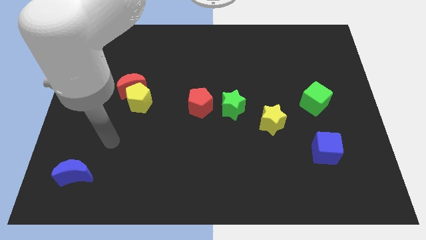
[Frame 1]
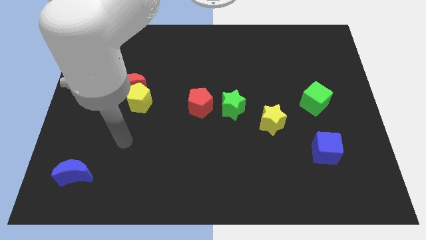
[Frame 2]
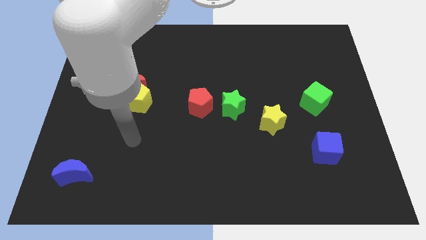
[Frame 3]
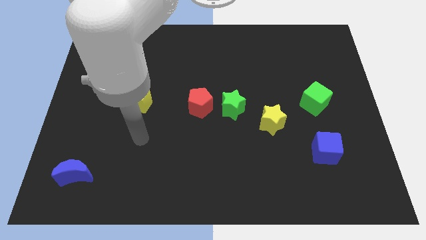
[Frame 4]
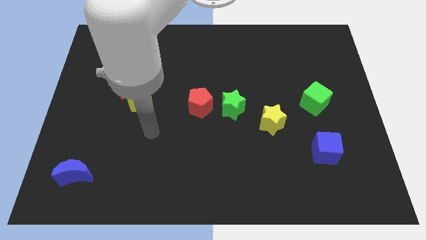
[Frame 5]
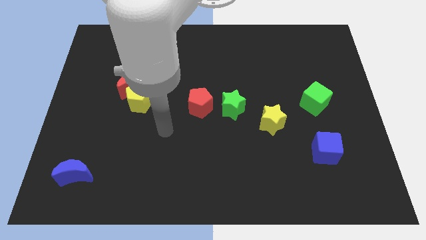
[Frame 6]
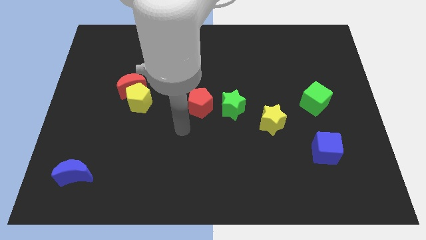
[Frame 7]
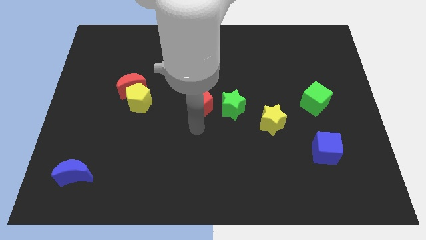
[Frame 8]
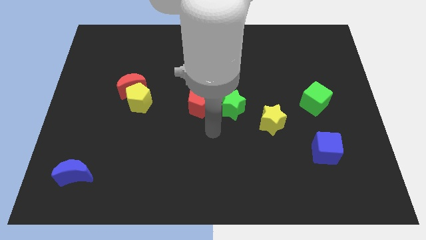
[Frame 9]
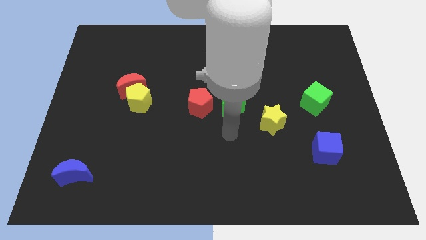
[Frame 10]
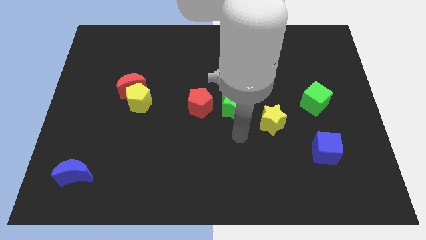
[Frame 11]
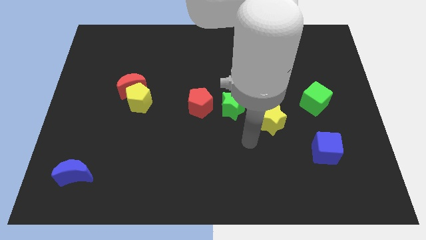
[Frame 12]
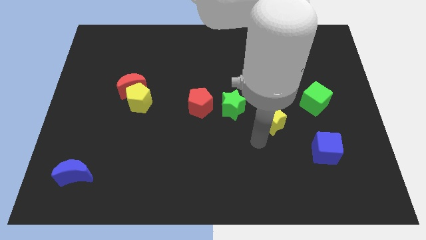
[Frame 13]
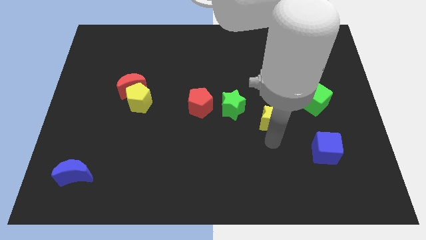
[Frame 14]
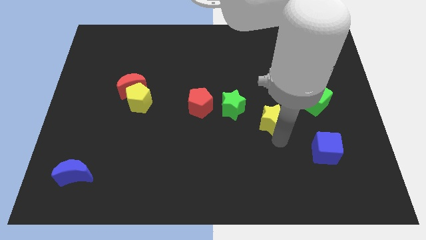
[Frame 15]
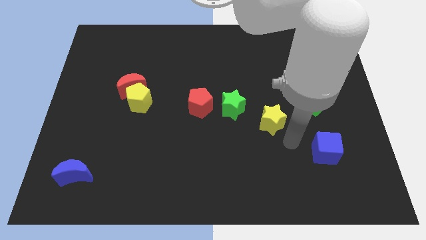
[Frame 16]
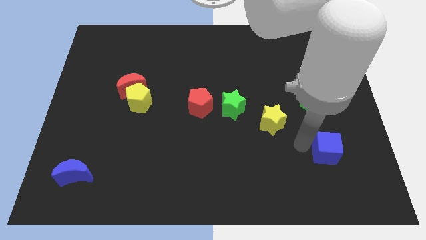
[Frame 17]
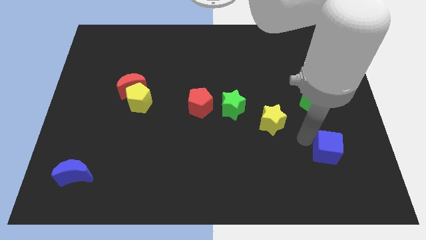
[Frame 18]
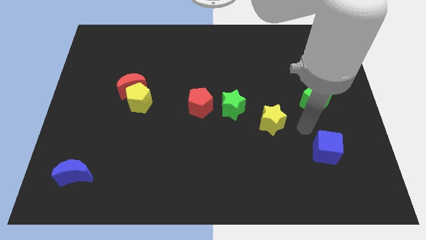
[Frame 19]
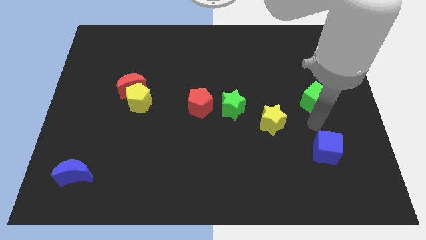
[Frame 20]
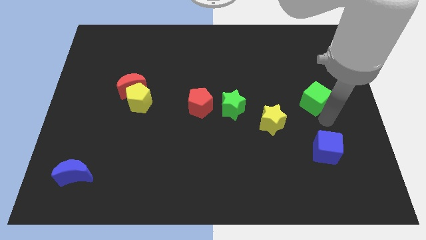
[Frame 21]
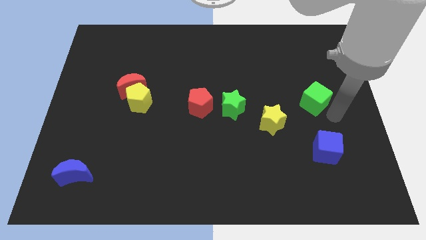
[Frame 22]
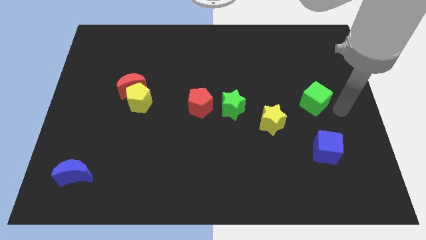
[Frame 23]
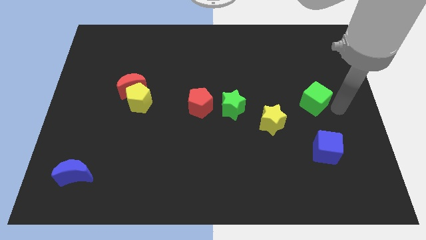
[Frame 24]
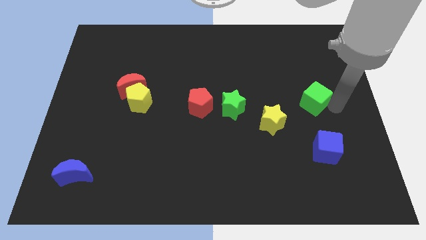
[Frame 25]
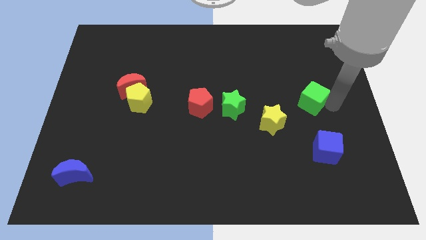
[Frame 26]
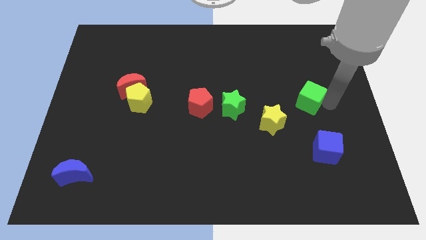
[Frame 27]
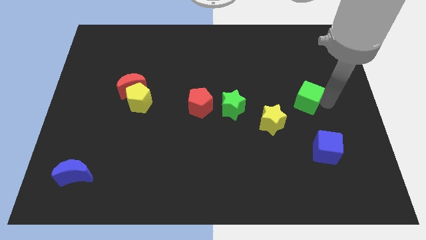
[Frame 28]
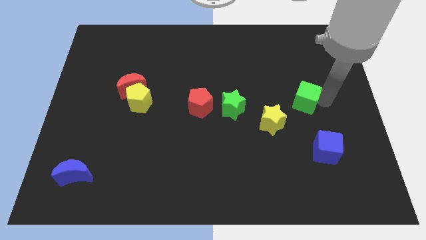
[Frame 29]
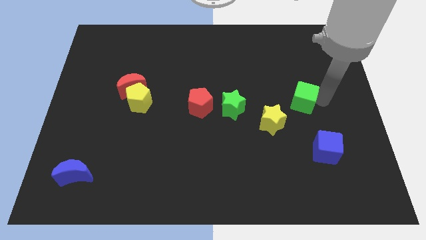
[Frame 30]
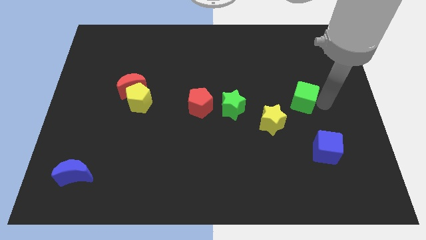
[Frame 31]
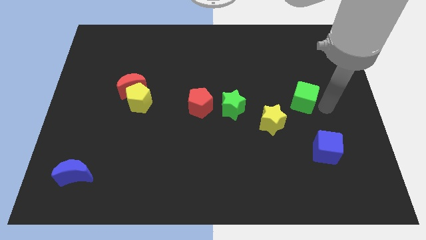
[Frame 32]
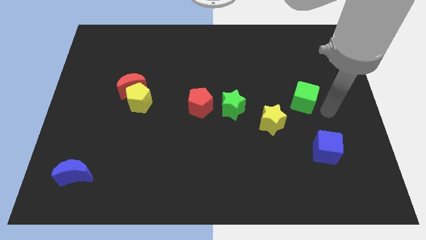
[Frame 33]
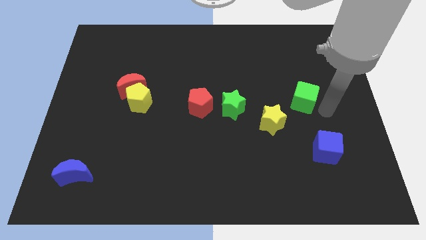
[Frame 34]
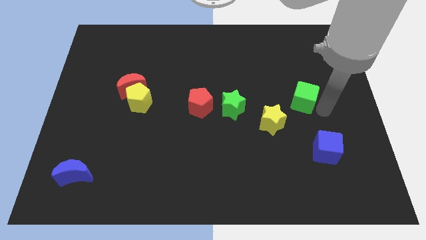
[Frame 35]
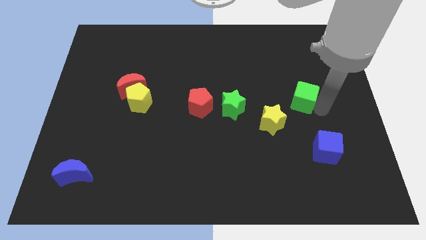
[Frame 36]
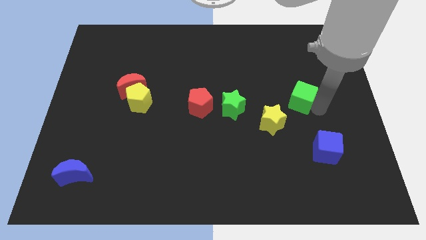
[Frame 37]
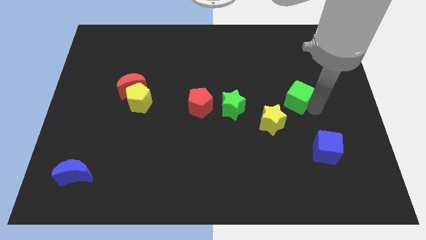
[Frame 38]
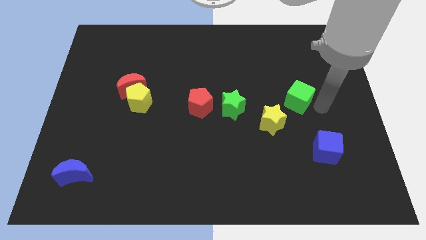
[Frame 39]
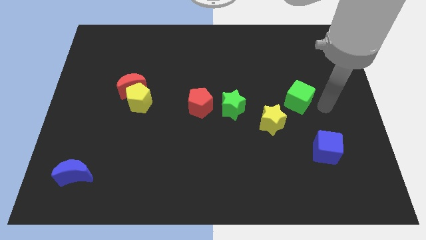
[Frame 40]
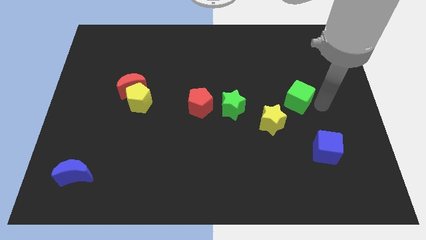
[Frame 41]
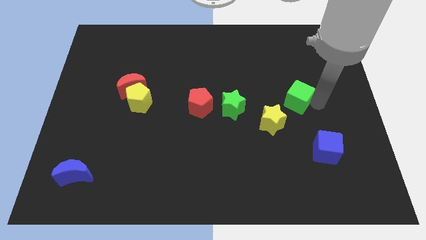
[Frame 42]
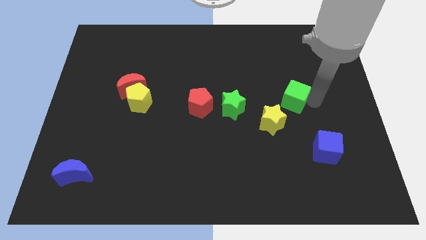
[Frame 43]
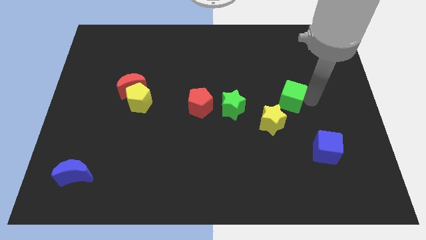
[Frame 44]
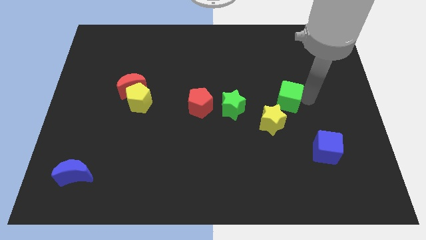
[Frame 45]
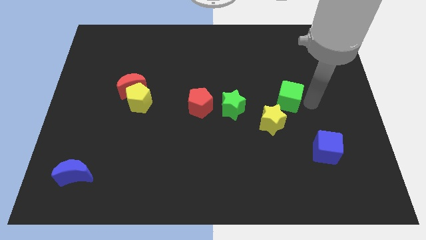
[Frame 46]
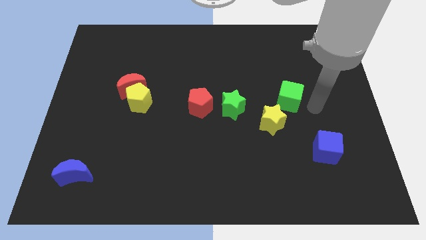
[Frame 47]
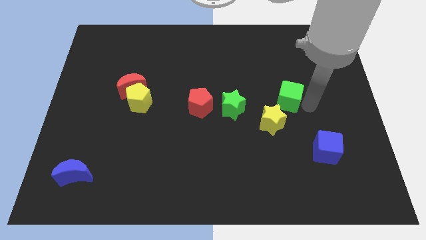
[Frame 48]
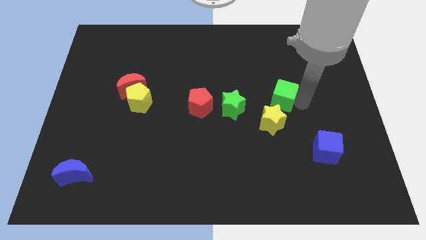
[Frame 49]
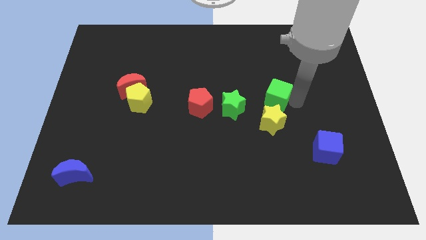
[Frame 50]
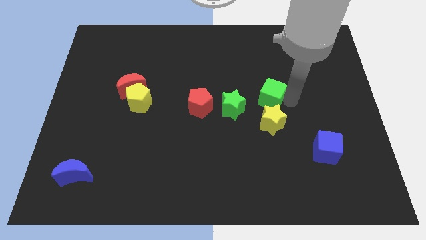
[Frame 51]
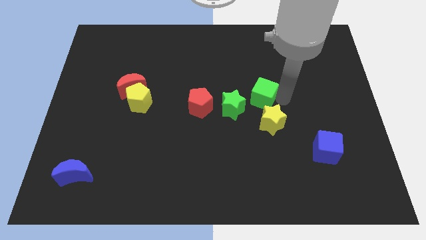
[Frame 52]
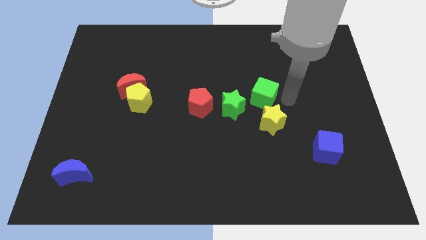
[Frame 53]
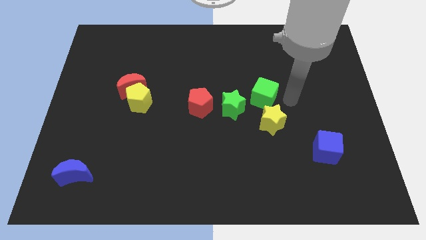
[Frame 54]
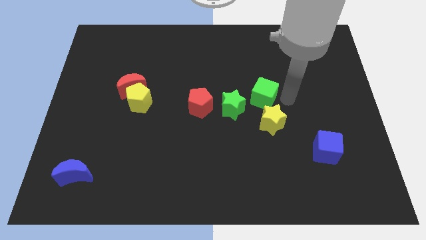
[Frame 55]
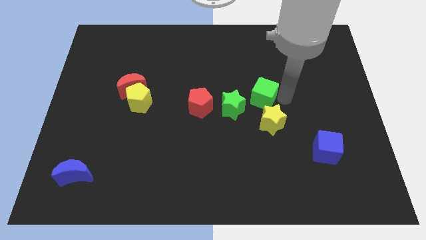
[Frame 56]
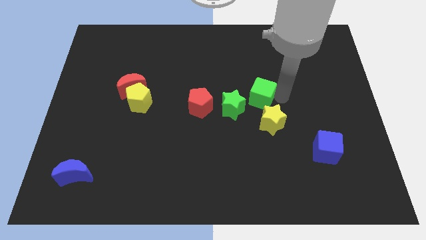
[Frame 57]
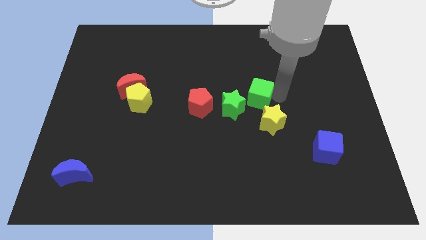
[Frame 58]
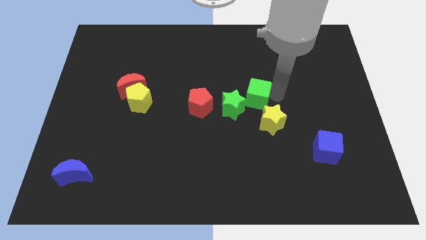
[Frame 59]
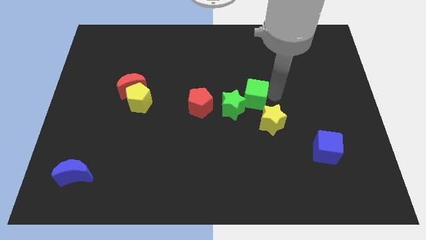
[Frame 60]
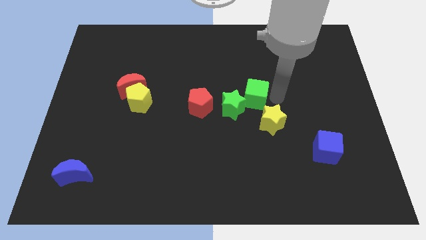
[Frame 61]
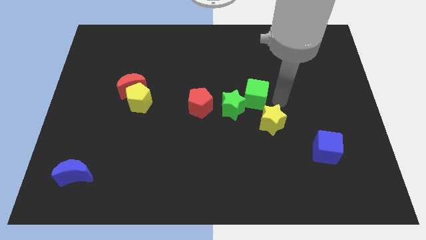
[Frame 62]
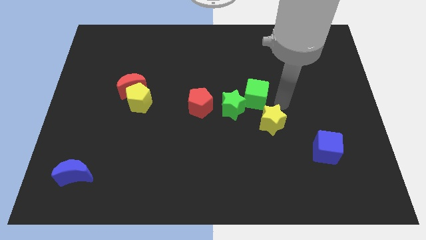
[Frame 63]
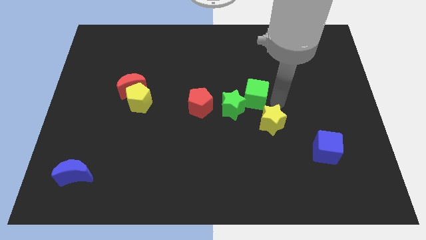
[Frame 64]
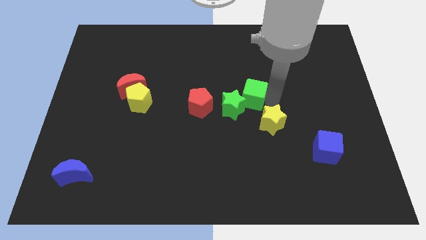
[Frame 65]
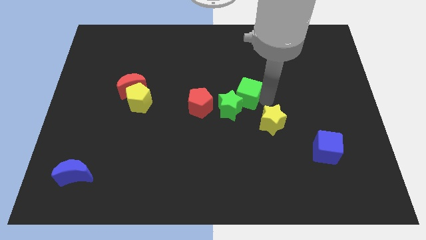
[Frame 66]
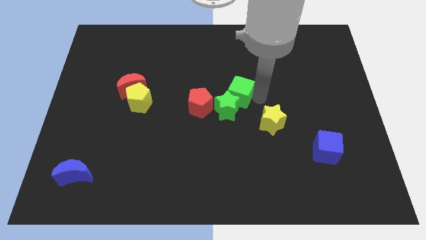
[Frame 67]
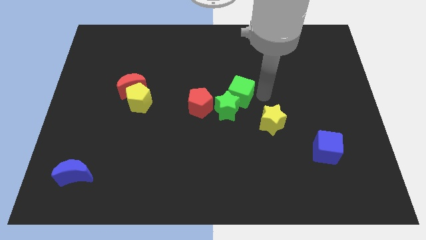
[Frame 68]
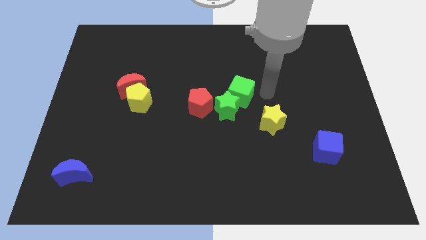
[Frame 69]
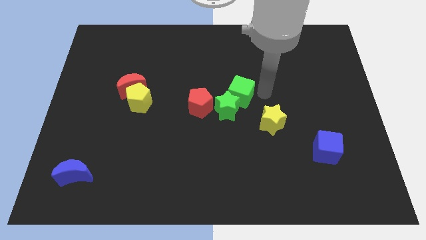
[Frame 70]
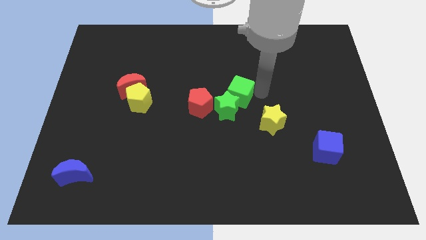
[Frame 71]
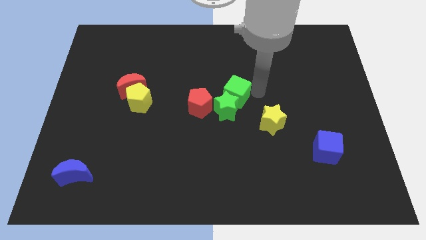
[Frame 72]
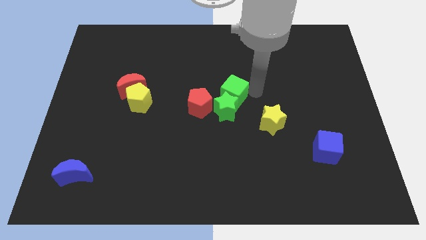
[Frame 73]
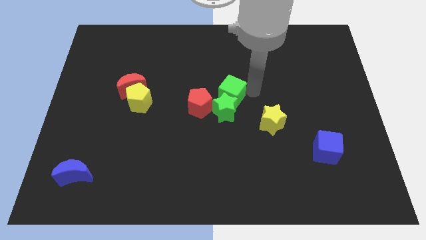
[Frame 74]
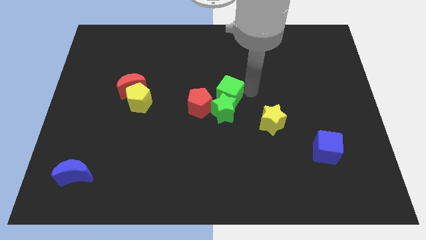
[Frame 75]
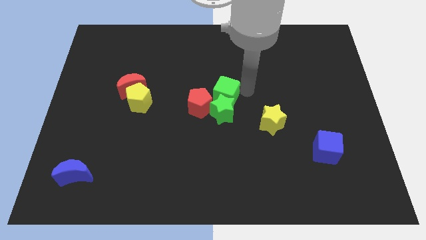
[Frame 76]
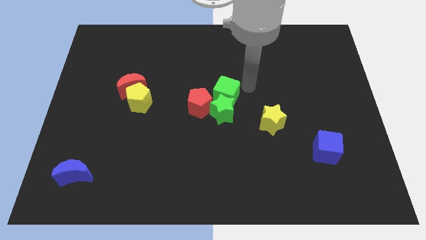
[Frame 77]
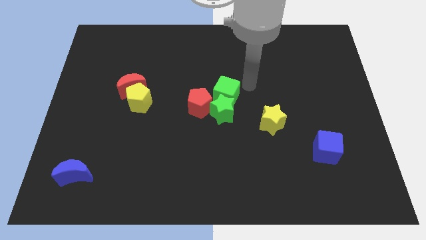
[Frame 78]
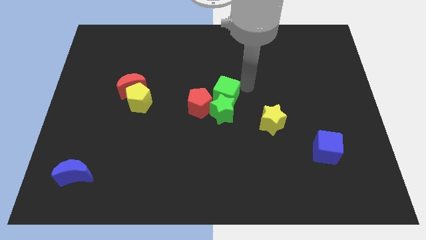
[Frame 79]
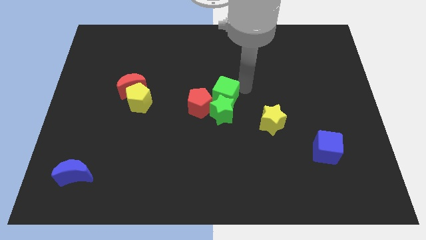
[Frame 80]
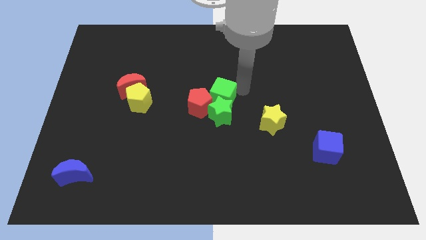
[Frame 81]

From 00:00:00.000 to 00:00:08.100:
push the green cube to the red pentagon
